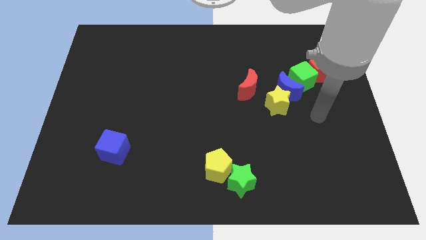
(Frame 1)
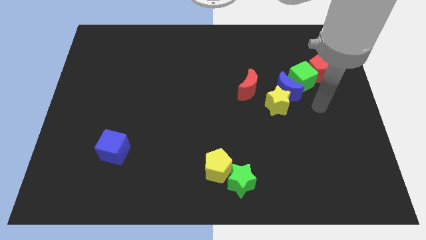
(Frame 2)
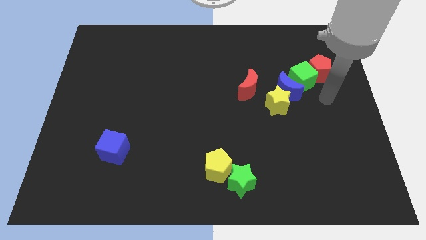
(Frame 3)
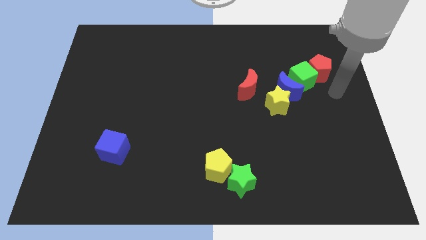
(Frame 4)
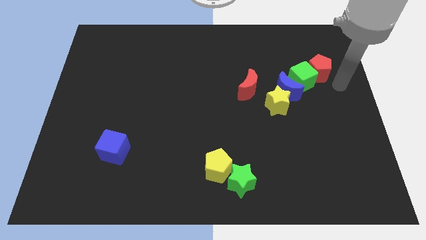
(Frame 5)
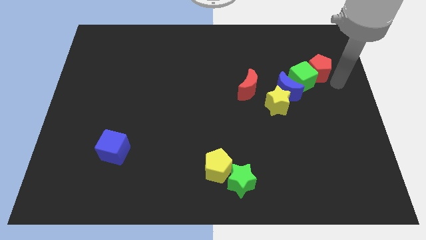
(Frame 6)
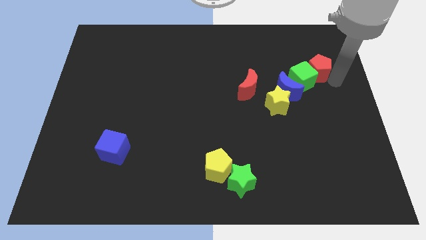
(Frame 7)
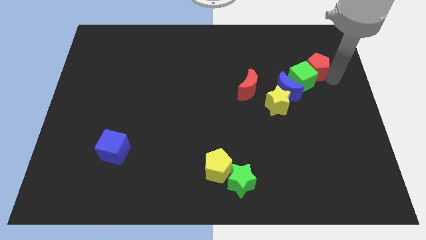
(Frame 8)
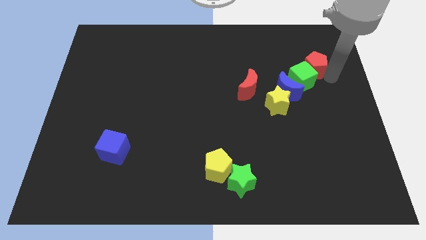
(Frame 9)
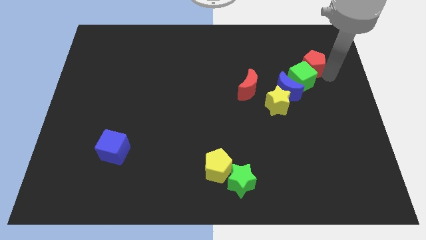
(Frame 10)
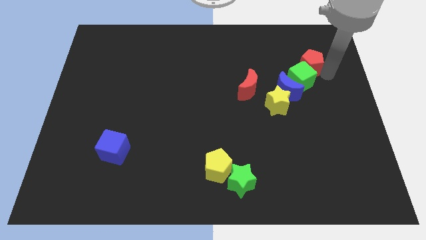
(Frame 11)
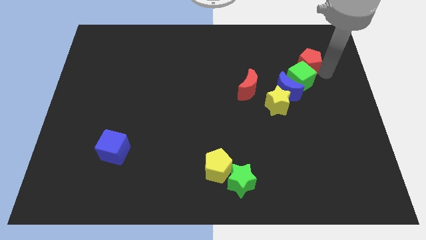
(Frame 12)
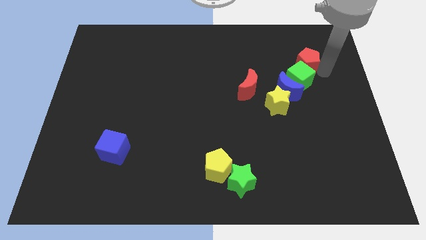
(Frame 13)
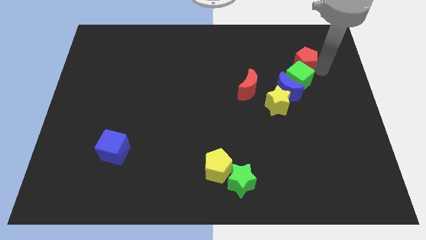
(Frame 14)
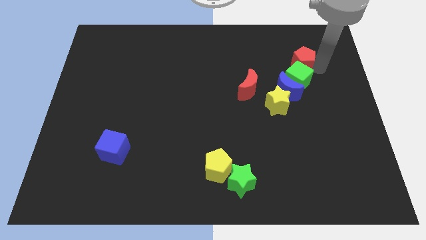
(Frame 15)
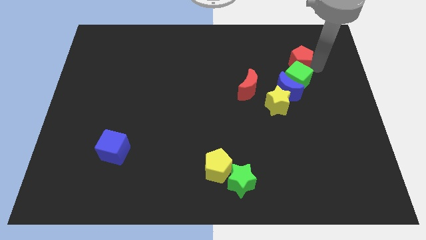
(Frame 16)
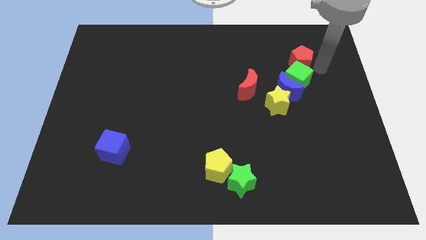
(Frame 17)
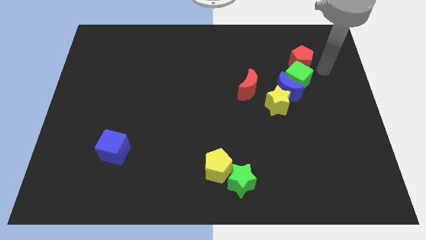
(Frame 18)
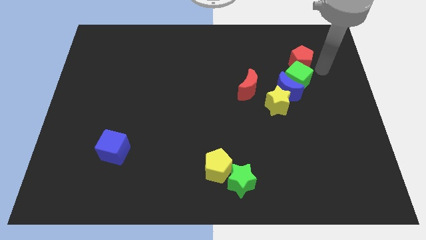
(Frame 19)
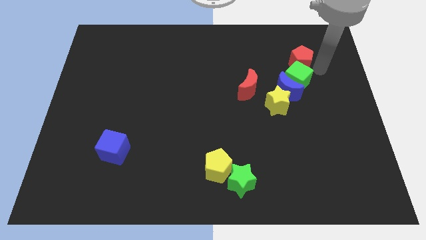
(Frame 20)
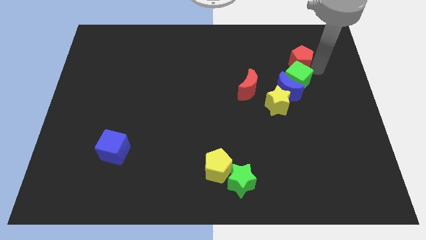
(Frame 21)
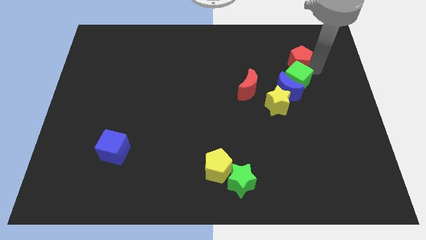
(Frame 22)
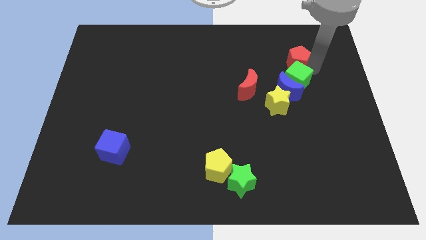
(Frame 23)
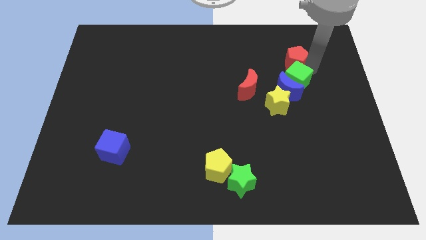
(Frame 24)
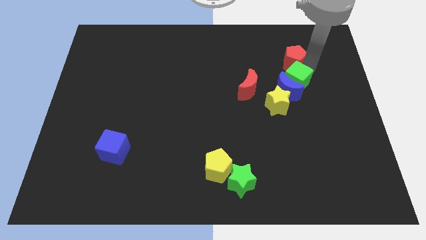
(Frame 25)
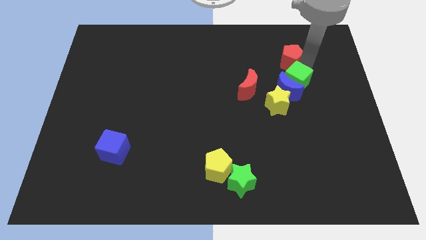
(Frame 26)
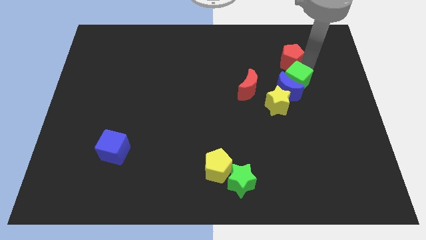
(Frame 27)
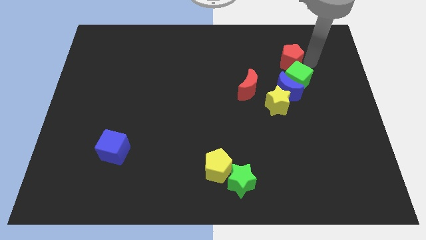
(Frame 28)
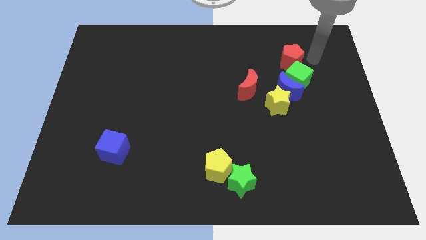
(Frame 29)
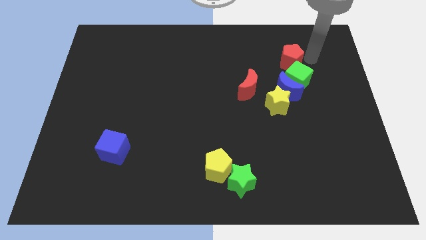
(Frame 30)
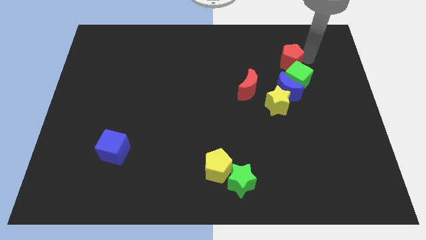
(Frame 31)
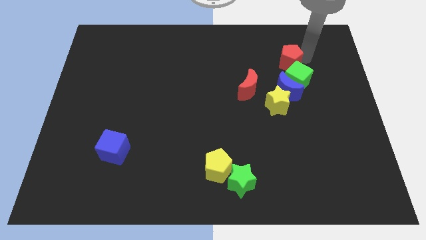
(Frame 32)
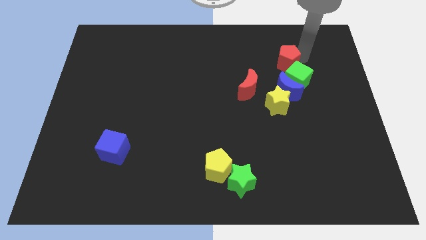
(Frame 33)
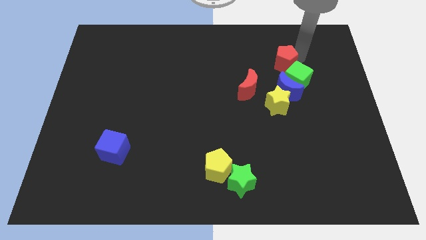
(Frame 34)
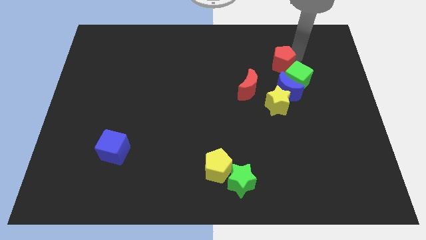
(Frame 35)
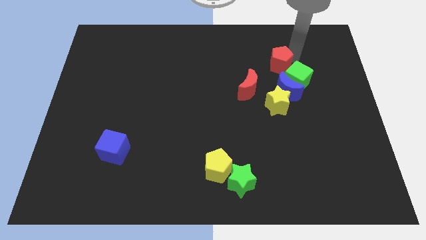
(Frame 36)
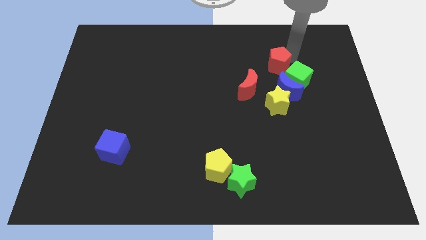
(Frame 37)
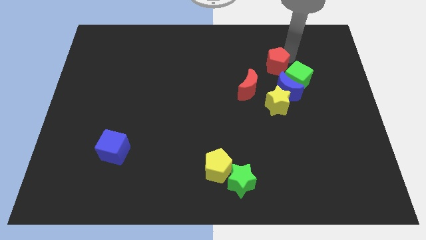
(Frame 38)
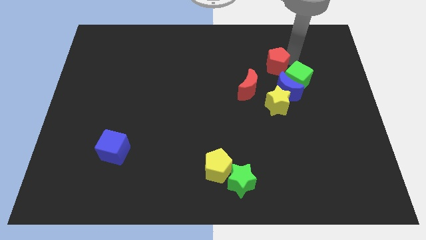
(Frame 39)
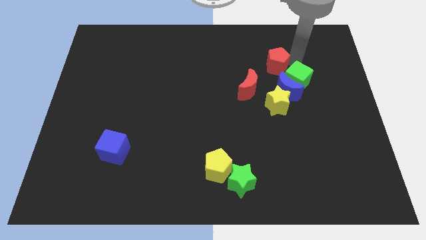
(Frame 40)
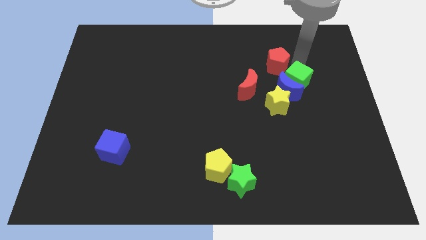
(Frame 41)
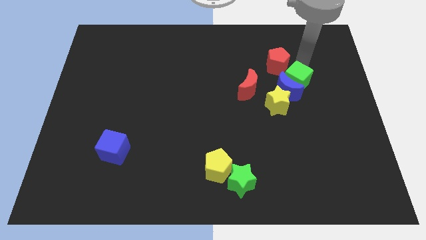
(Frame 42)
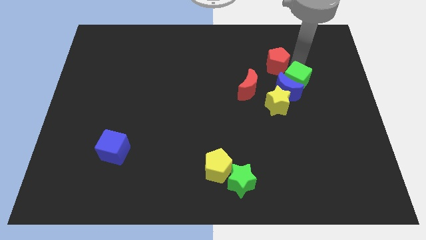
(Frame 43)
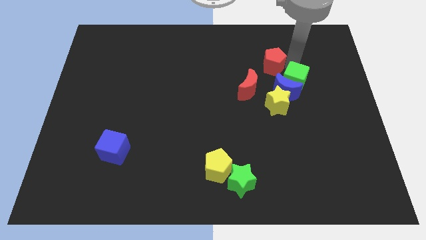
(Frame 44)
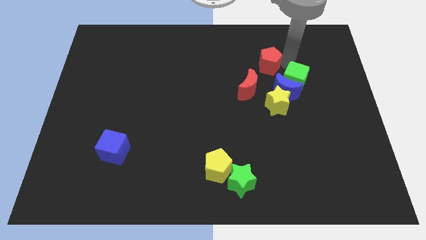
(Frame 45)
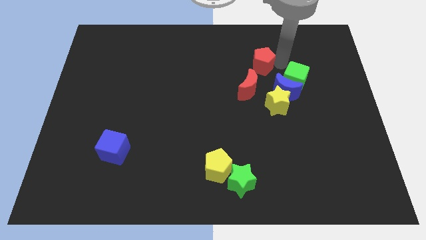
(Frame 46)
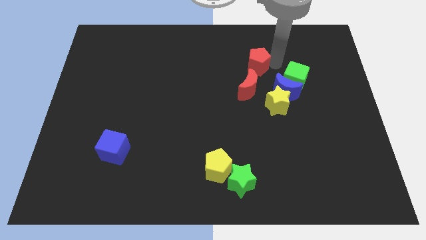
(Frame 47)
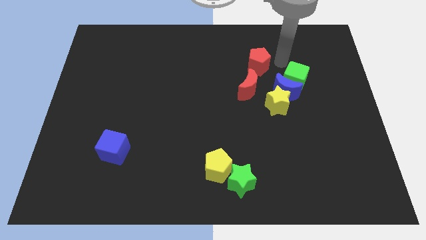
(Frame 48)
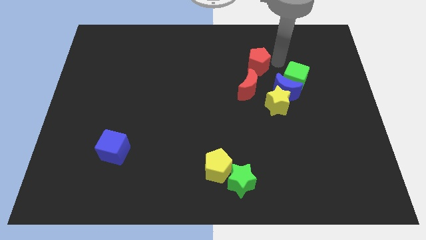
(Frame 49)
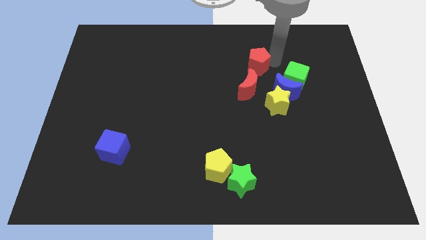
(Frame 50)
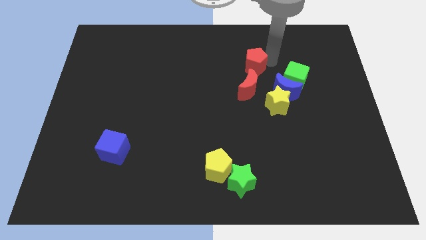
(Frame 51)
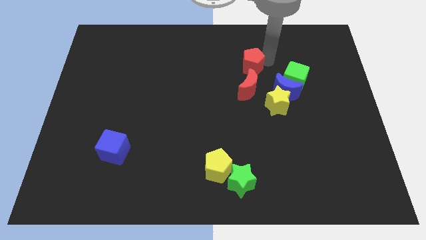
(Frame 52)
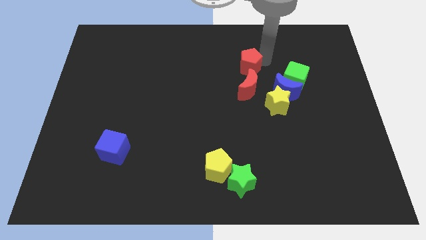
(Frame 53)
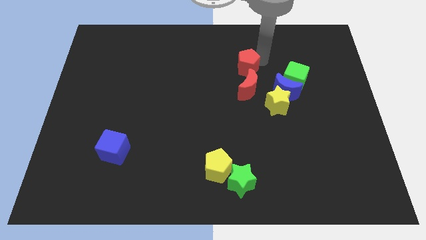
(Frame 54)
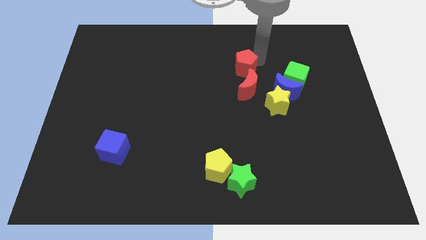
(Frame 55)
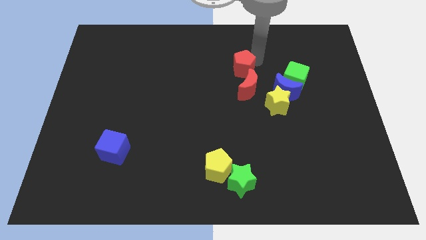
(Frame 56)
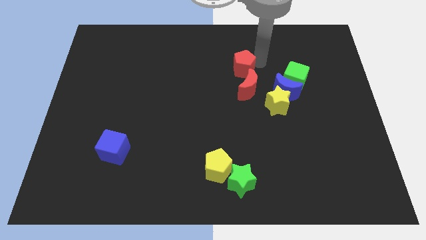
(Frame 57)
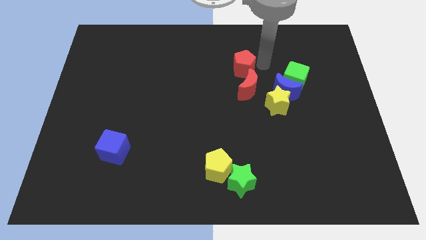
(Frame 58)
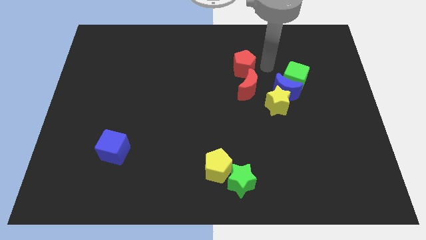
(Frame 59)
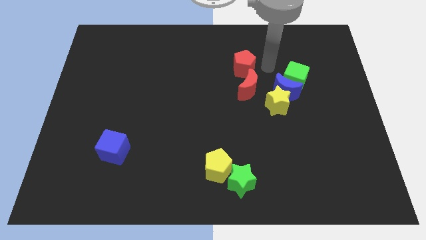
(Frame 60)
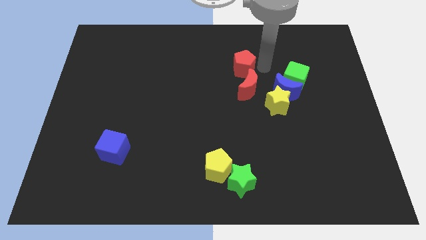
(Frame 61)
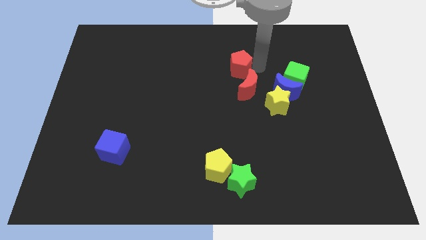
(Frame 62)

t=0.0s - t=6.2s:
push the red pentagon left

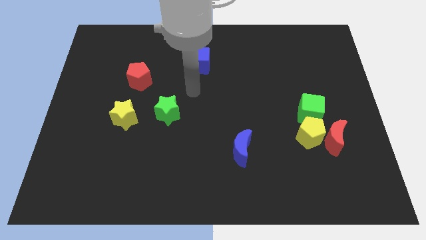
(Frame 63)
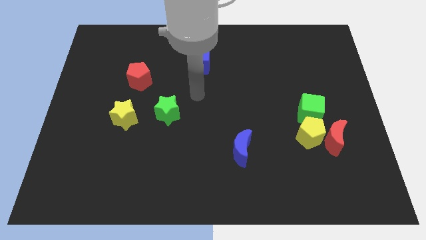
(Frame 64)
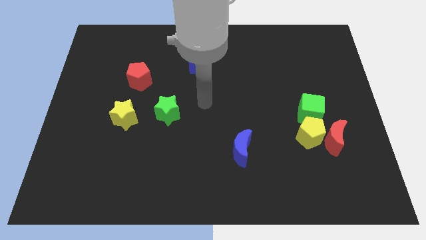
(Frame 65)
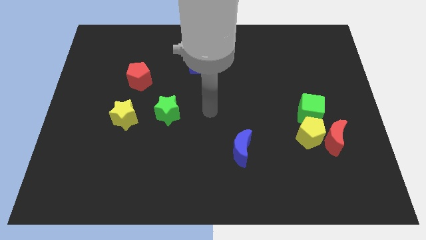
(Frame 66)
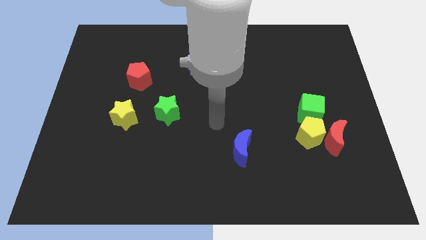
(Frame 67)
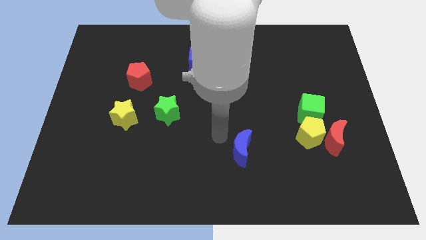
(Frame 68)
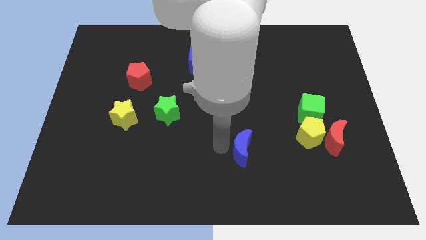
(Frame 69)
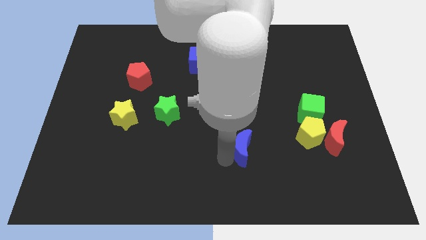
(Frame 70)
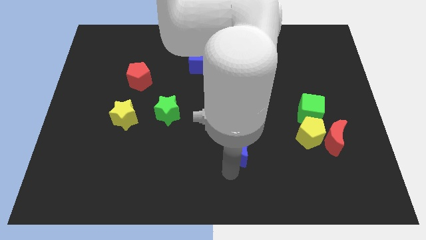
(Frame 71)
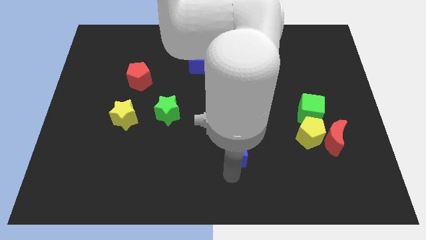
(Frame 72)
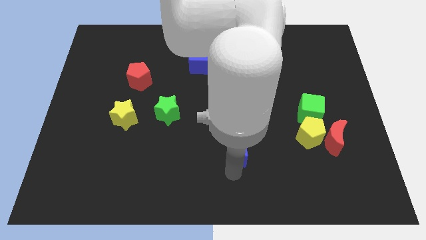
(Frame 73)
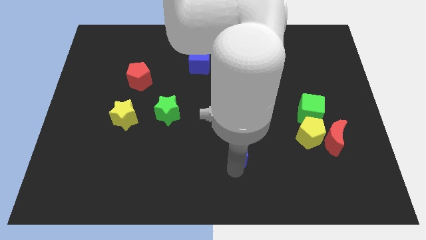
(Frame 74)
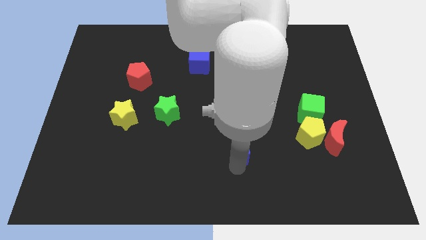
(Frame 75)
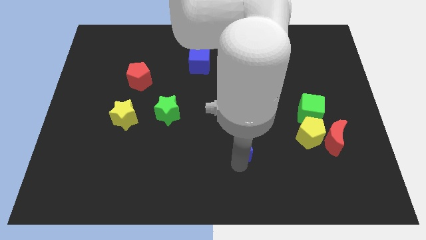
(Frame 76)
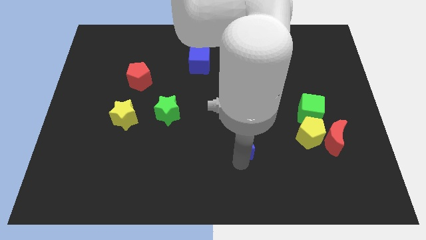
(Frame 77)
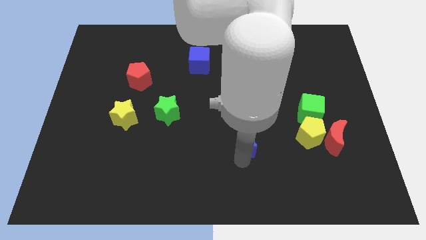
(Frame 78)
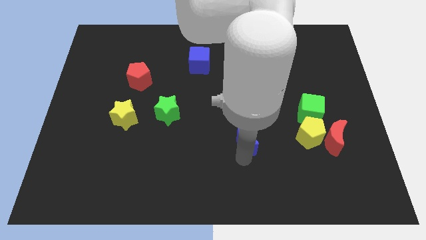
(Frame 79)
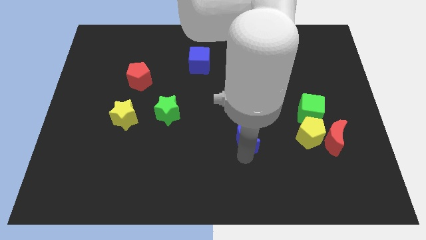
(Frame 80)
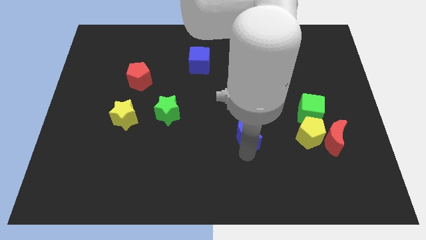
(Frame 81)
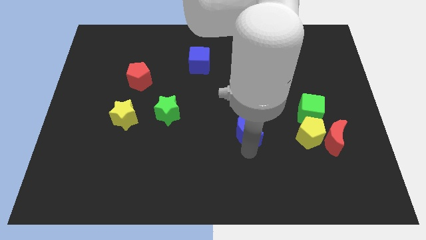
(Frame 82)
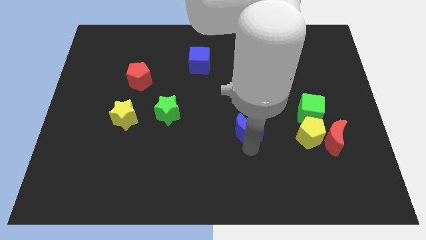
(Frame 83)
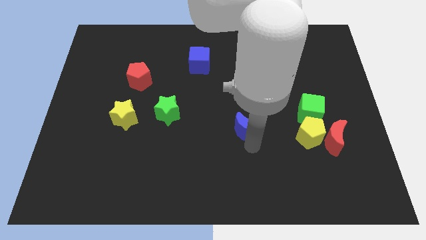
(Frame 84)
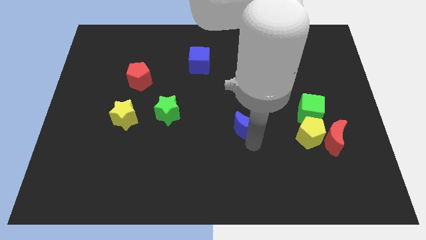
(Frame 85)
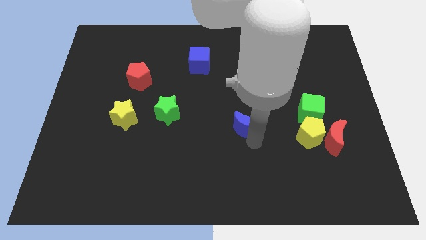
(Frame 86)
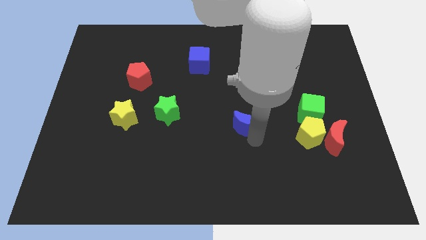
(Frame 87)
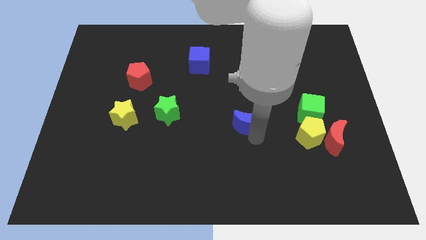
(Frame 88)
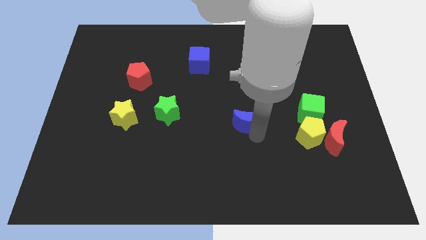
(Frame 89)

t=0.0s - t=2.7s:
slide the blue moon up somewhat
